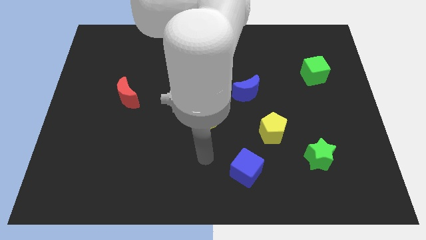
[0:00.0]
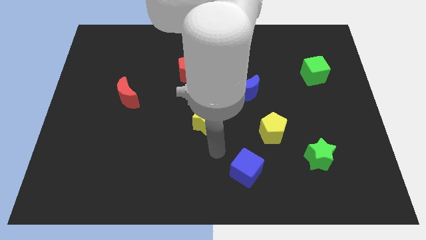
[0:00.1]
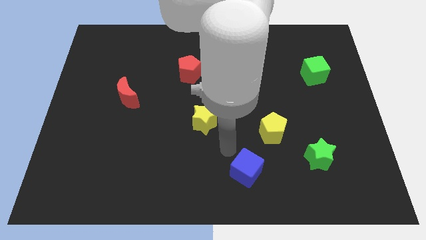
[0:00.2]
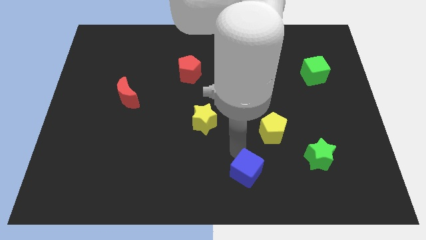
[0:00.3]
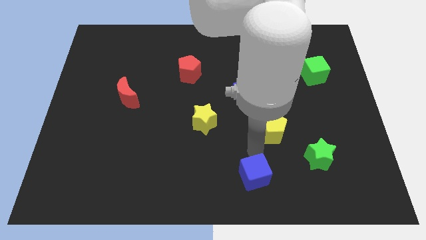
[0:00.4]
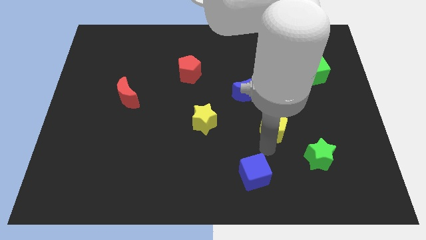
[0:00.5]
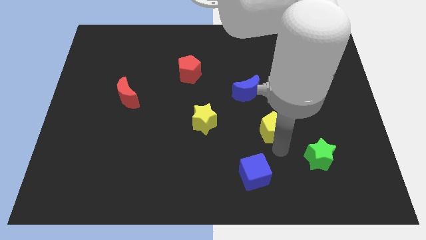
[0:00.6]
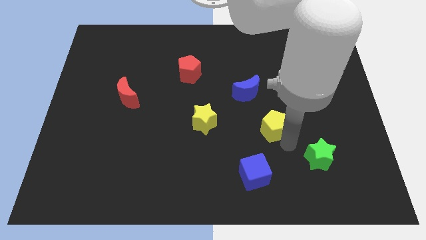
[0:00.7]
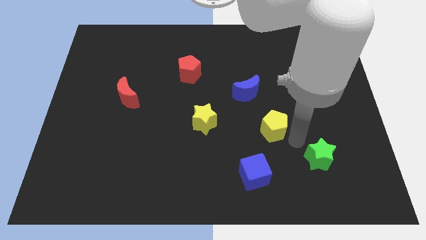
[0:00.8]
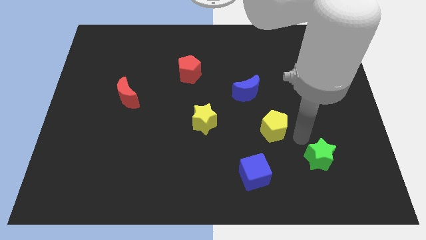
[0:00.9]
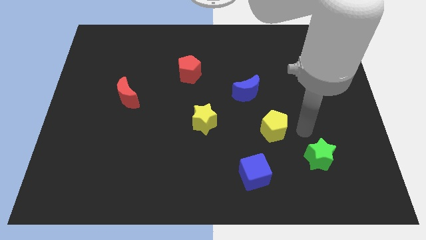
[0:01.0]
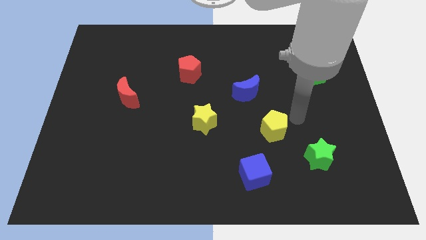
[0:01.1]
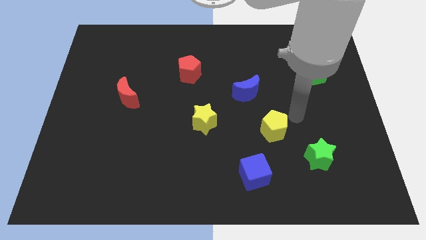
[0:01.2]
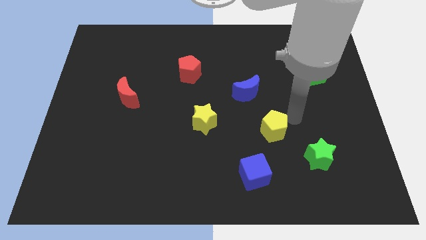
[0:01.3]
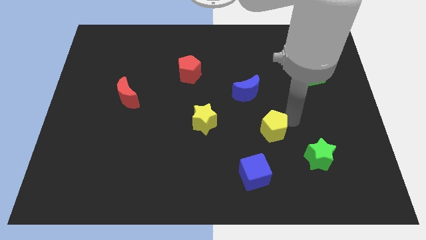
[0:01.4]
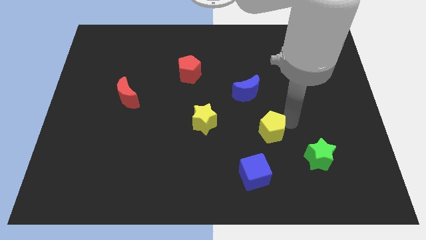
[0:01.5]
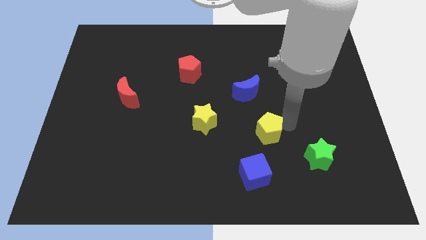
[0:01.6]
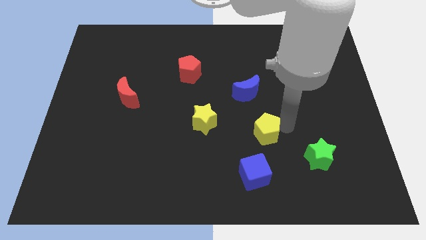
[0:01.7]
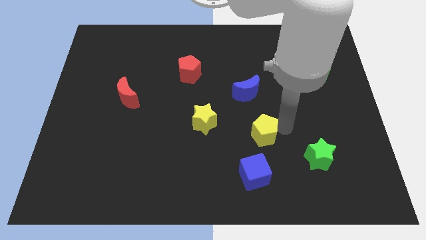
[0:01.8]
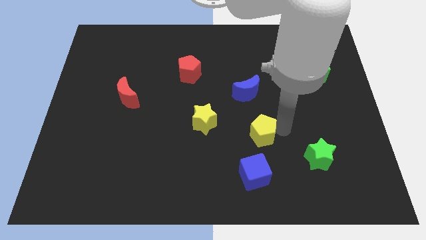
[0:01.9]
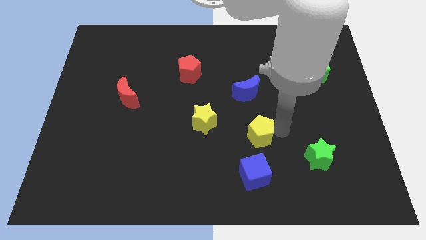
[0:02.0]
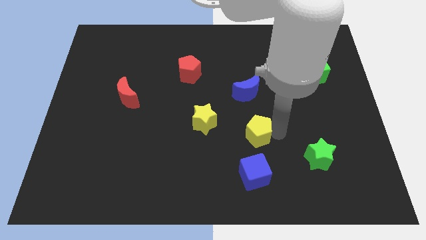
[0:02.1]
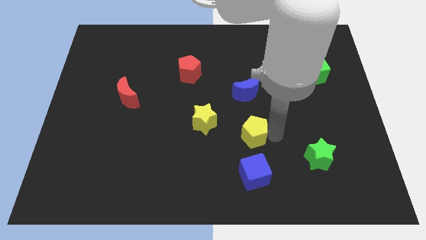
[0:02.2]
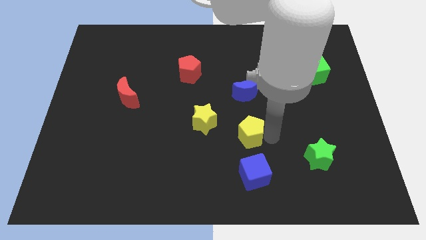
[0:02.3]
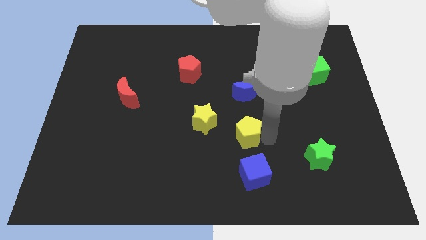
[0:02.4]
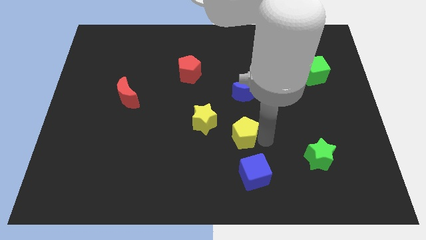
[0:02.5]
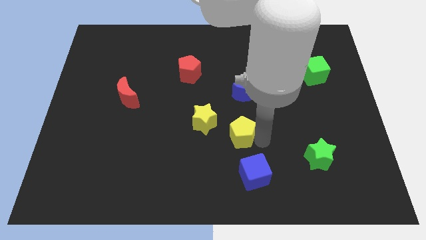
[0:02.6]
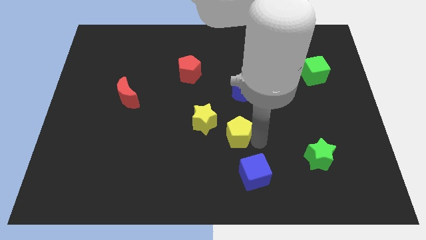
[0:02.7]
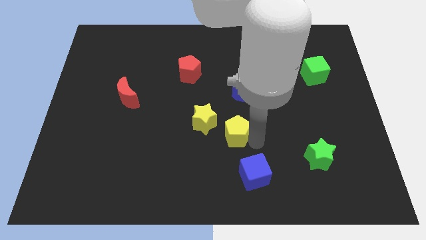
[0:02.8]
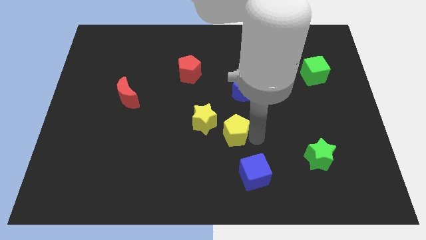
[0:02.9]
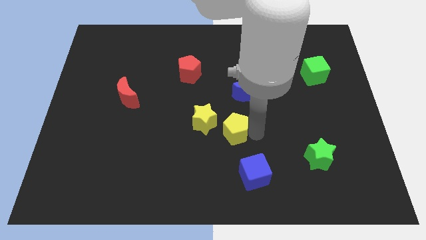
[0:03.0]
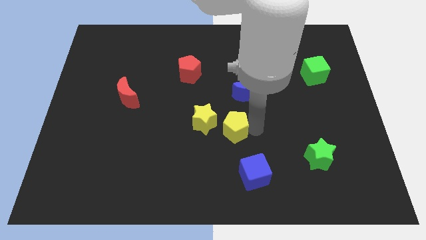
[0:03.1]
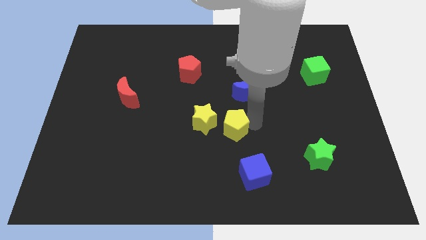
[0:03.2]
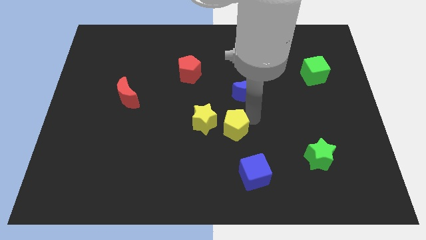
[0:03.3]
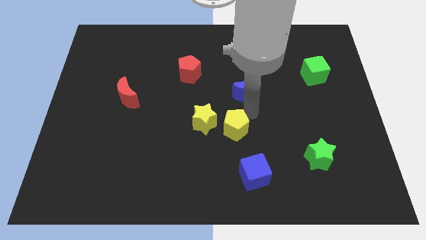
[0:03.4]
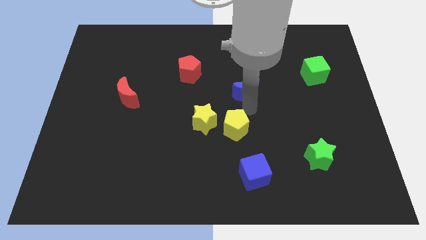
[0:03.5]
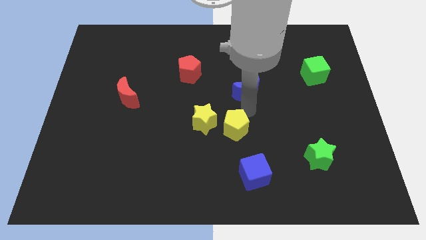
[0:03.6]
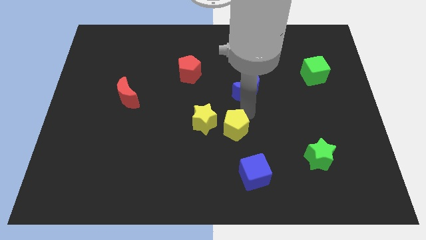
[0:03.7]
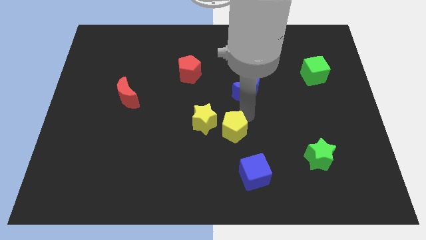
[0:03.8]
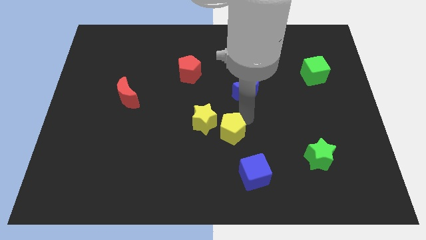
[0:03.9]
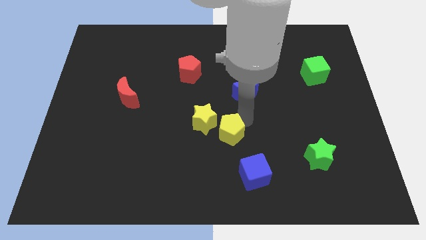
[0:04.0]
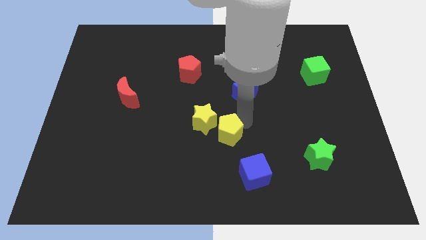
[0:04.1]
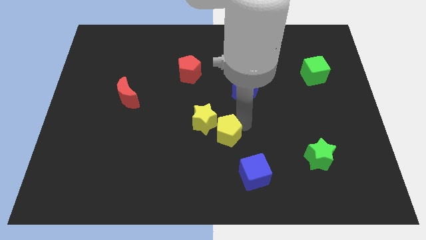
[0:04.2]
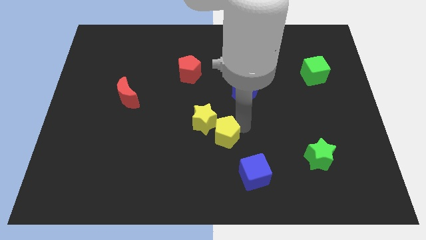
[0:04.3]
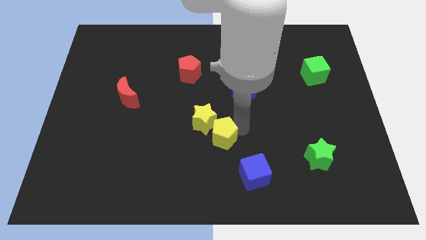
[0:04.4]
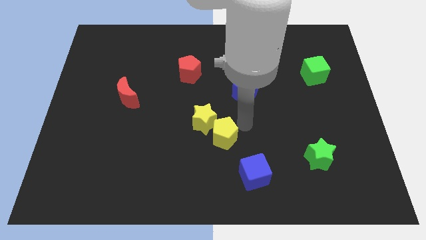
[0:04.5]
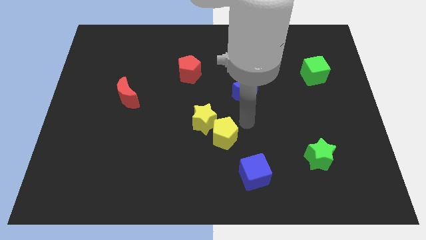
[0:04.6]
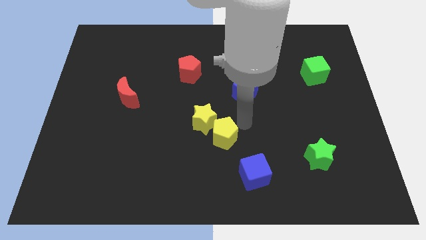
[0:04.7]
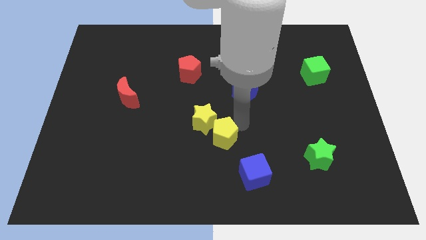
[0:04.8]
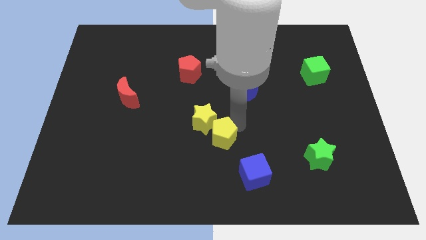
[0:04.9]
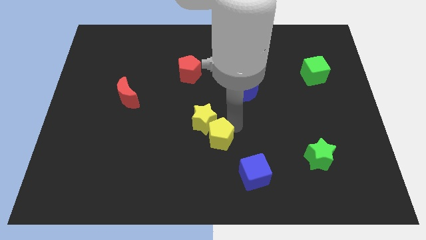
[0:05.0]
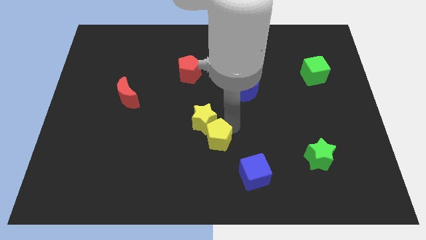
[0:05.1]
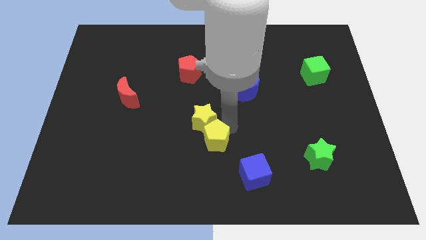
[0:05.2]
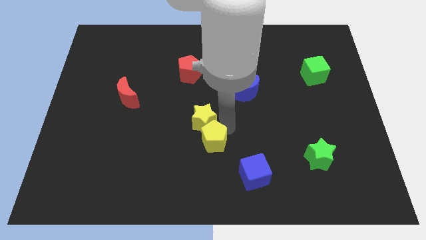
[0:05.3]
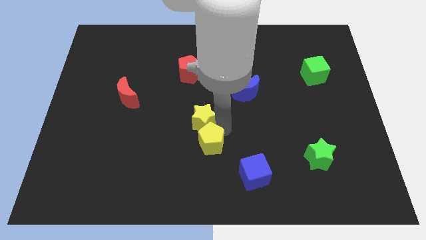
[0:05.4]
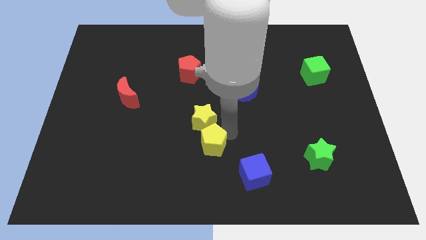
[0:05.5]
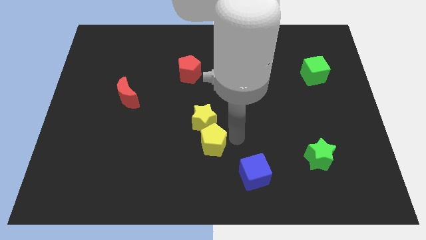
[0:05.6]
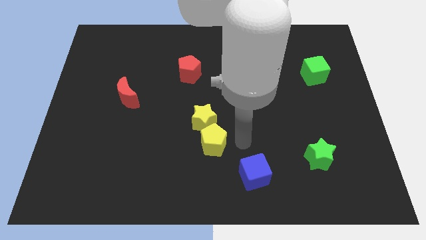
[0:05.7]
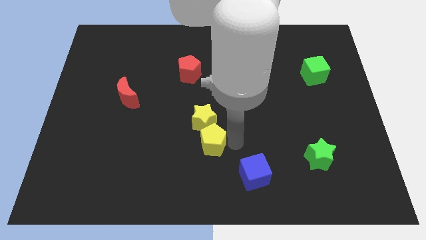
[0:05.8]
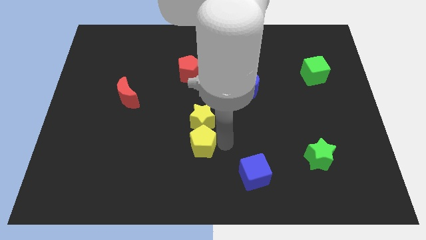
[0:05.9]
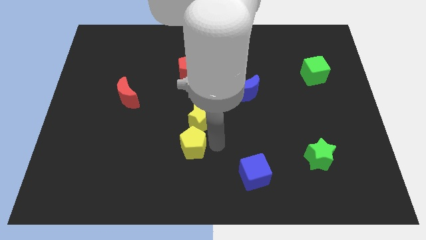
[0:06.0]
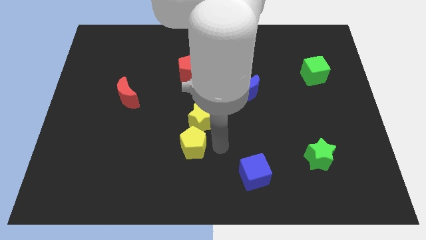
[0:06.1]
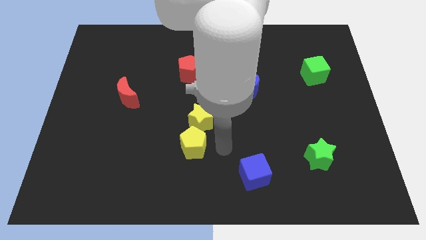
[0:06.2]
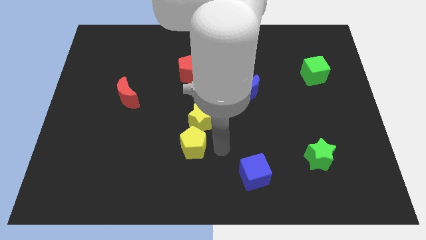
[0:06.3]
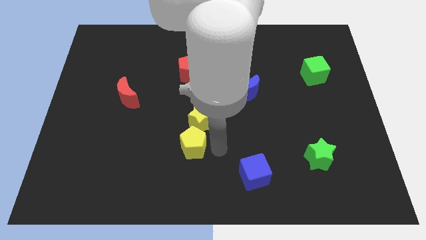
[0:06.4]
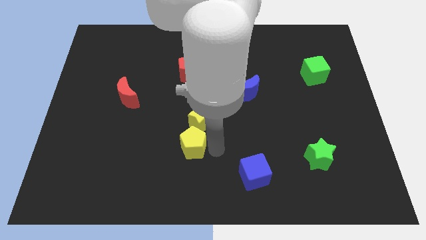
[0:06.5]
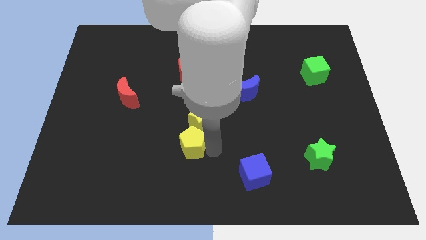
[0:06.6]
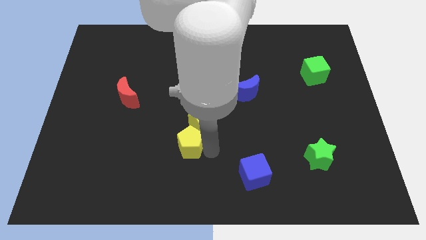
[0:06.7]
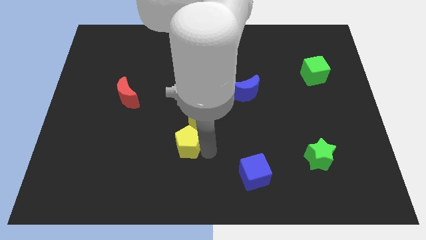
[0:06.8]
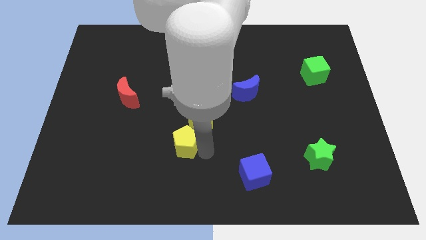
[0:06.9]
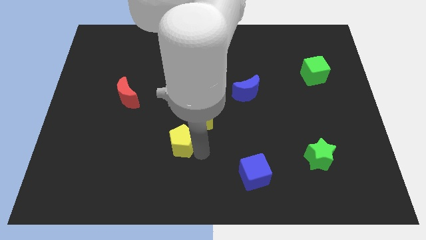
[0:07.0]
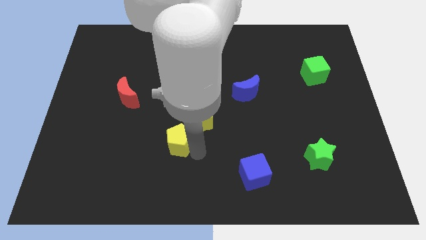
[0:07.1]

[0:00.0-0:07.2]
move the yellow pentagon to the left

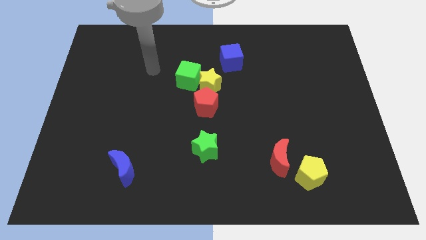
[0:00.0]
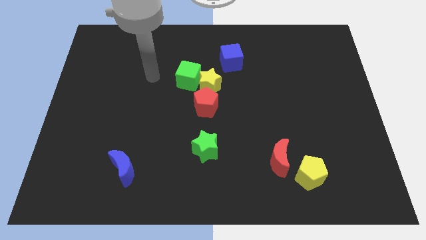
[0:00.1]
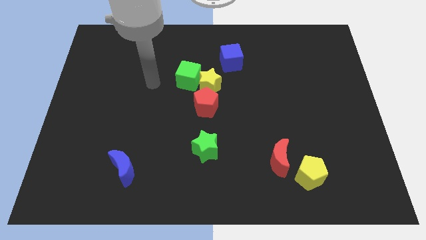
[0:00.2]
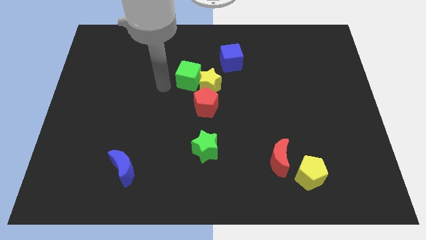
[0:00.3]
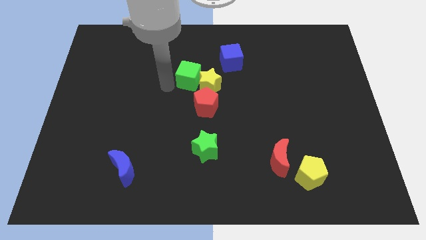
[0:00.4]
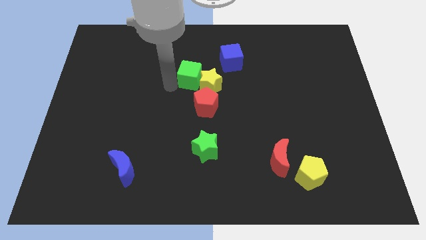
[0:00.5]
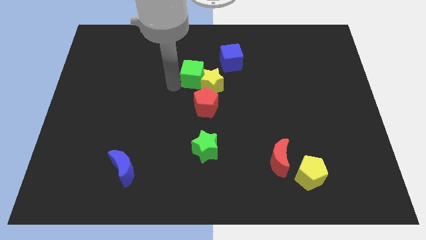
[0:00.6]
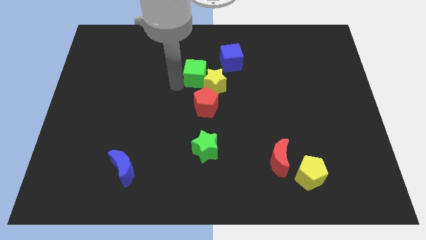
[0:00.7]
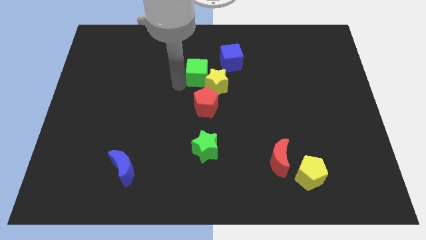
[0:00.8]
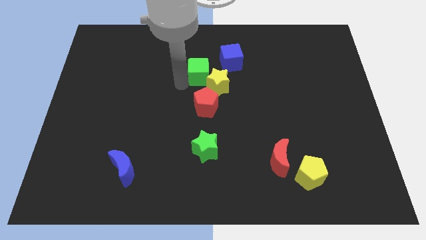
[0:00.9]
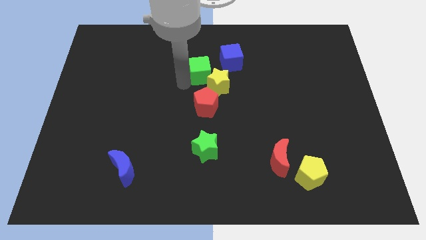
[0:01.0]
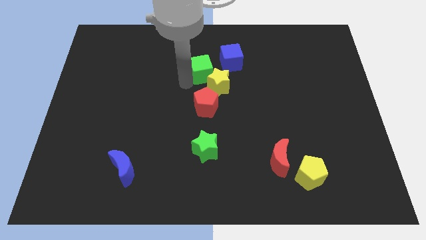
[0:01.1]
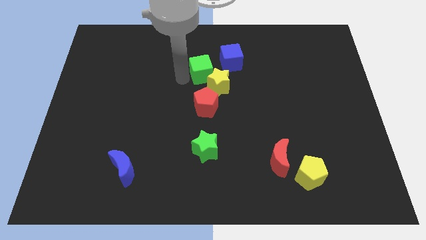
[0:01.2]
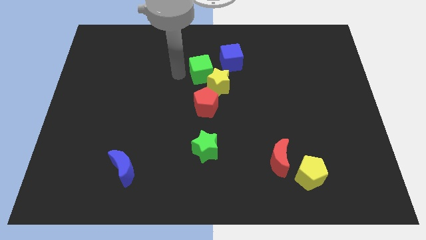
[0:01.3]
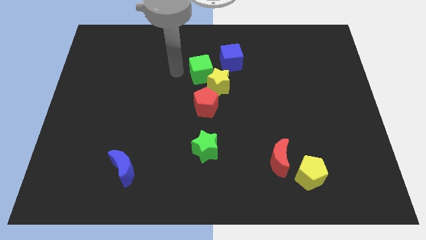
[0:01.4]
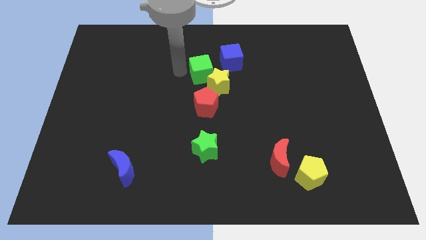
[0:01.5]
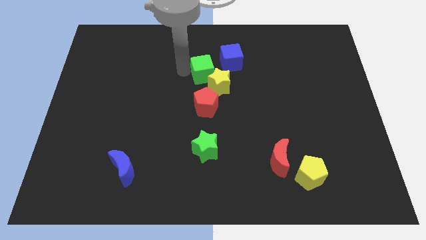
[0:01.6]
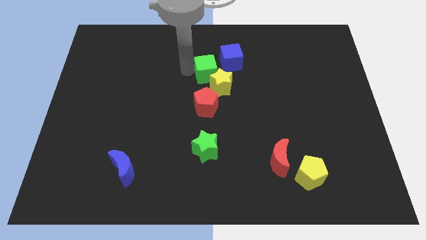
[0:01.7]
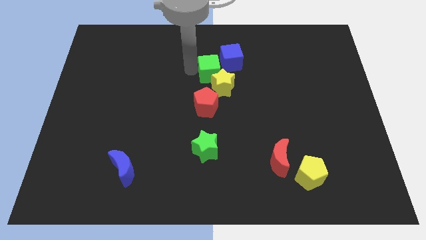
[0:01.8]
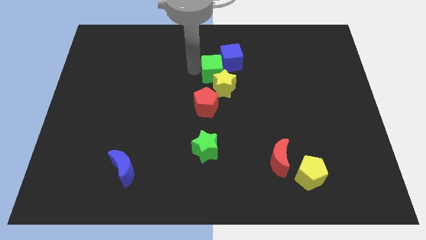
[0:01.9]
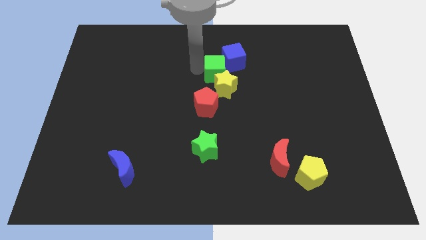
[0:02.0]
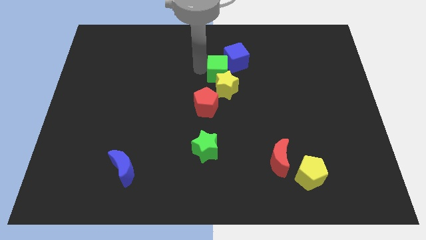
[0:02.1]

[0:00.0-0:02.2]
slide the green cube slightly right
